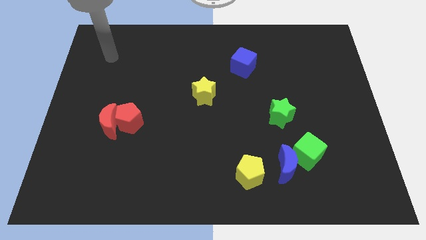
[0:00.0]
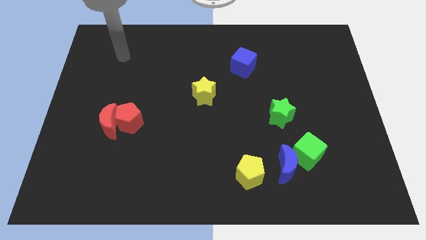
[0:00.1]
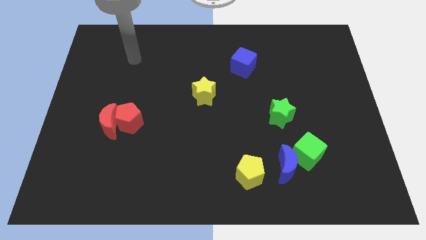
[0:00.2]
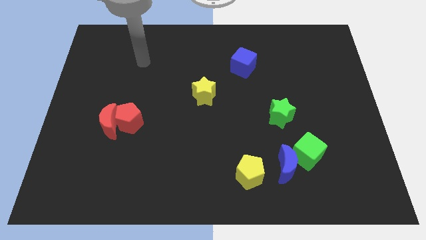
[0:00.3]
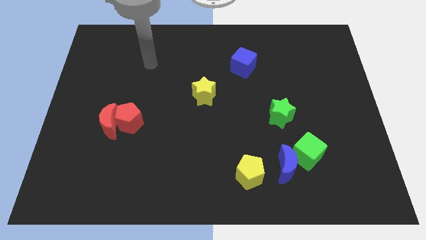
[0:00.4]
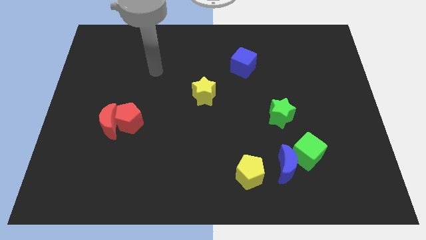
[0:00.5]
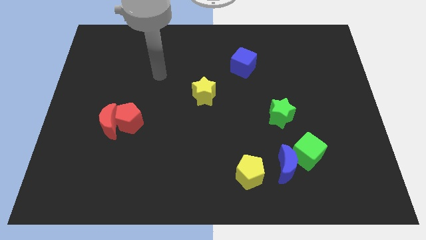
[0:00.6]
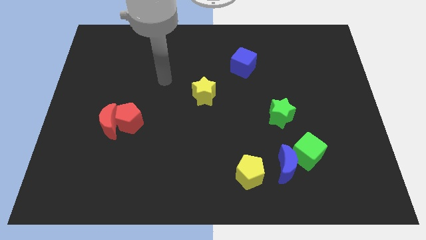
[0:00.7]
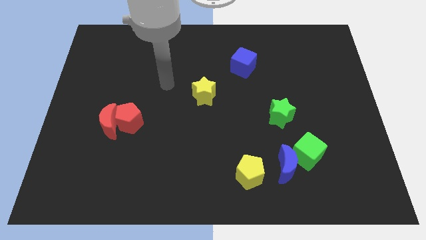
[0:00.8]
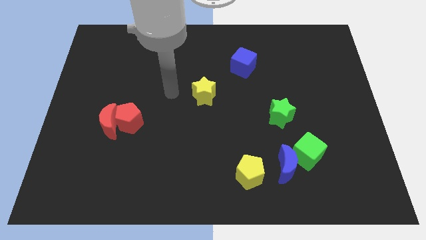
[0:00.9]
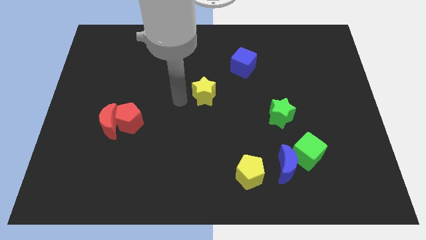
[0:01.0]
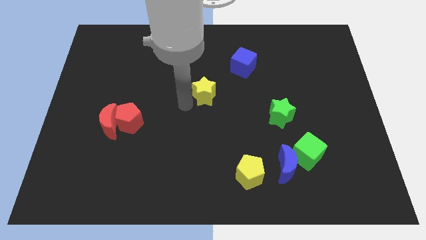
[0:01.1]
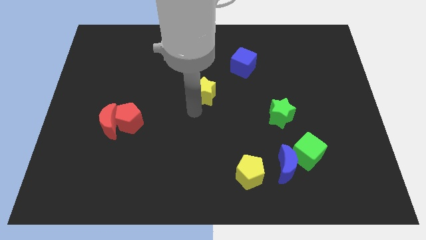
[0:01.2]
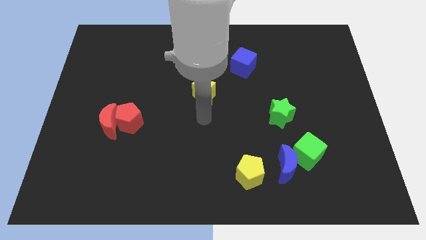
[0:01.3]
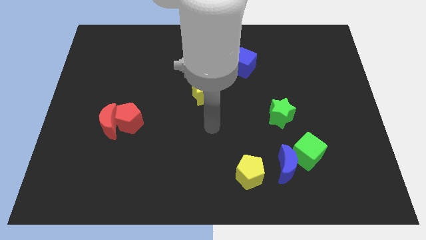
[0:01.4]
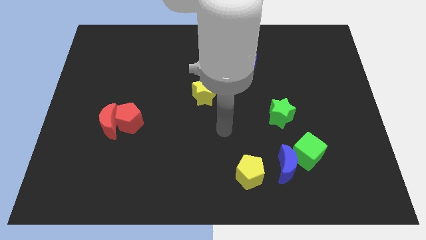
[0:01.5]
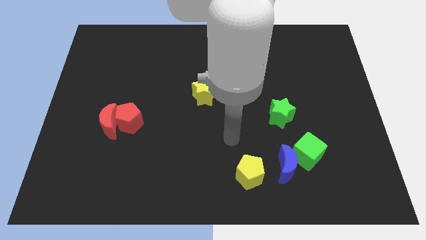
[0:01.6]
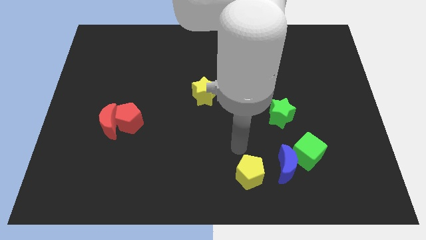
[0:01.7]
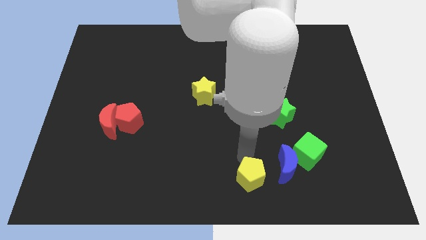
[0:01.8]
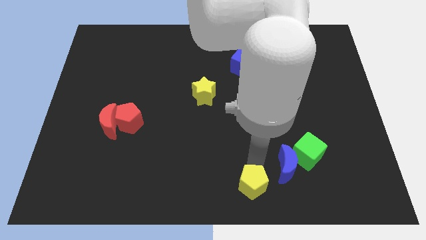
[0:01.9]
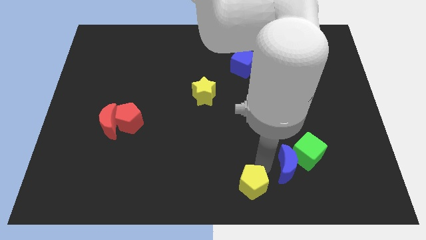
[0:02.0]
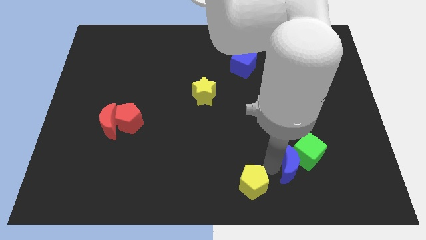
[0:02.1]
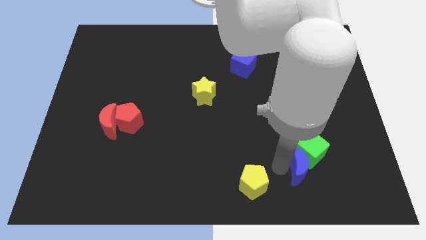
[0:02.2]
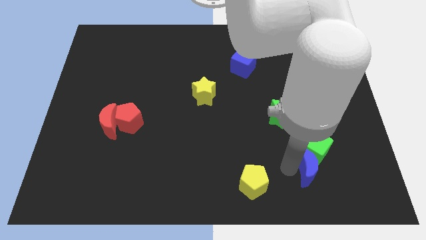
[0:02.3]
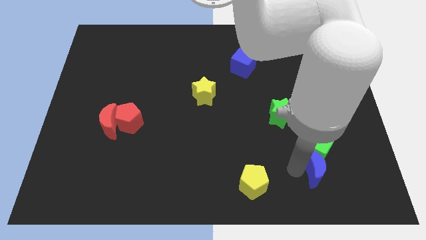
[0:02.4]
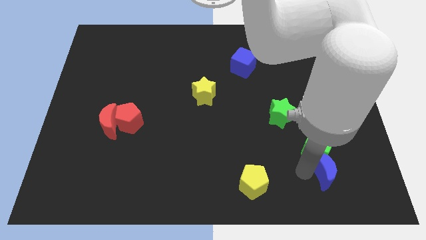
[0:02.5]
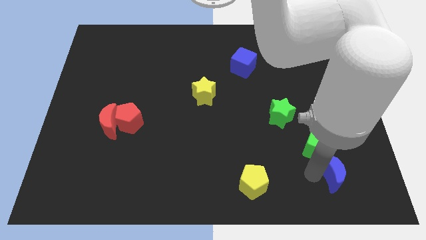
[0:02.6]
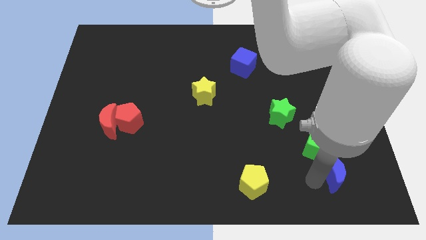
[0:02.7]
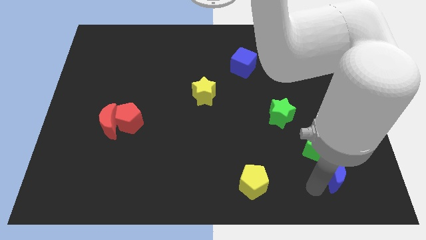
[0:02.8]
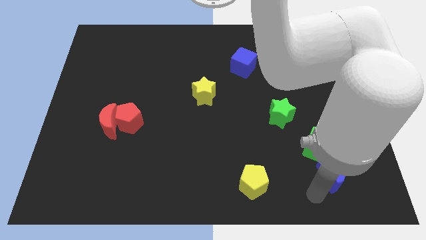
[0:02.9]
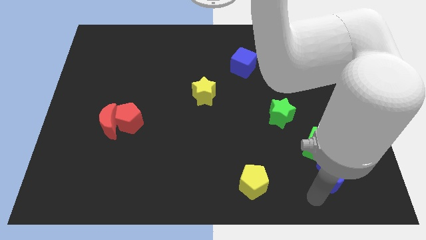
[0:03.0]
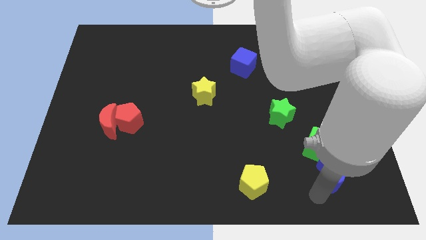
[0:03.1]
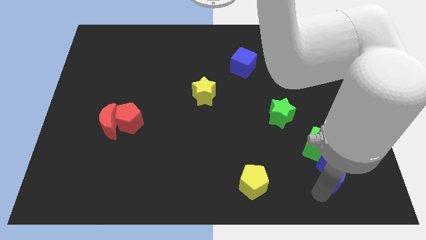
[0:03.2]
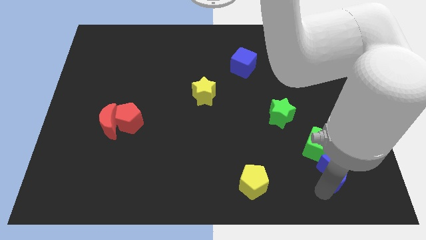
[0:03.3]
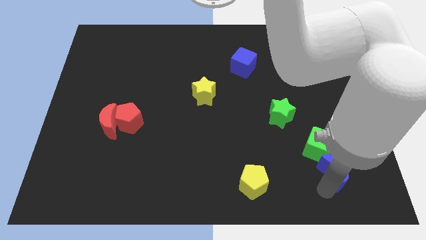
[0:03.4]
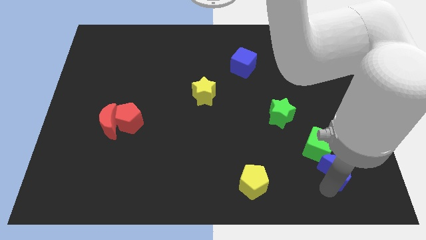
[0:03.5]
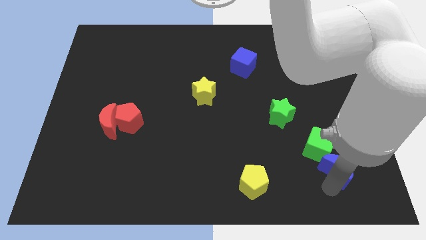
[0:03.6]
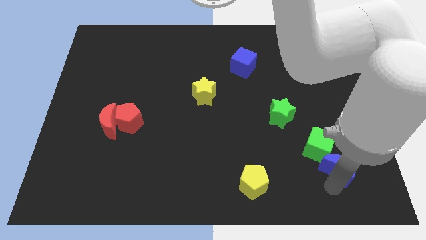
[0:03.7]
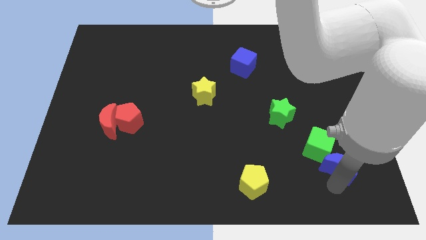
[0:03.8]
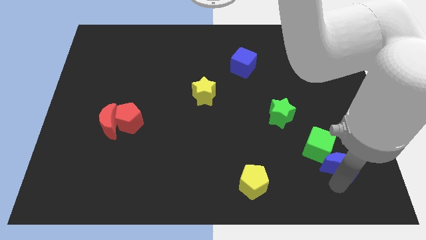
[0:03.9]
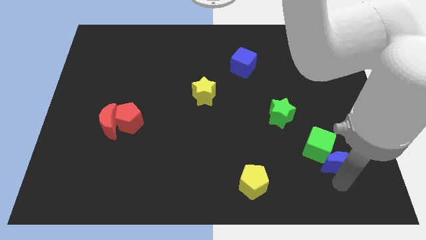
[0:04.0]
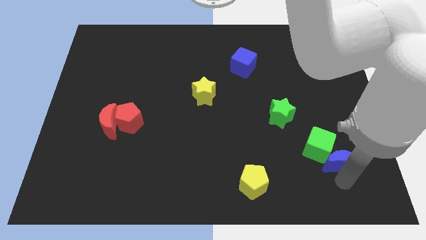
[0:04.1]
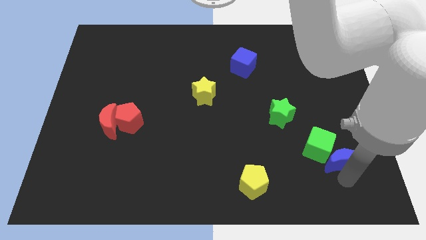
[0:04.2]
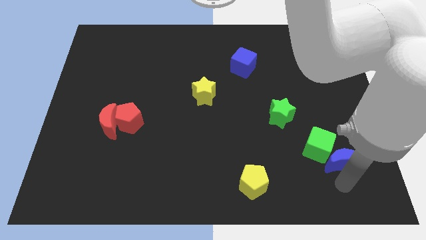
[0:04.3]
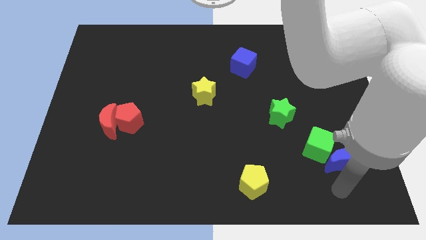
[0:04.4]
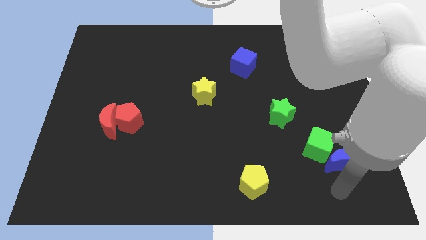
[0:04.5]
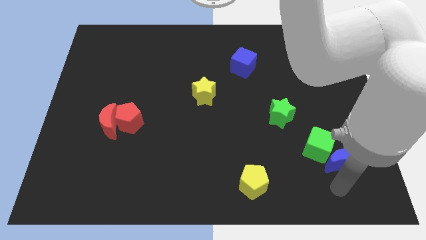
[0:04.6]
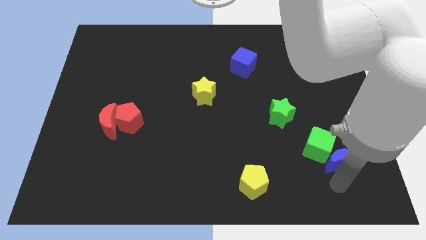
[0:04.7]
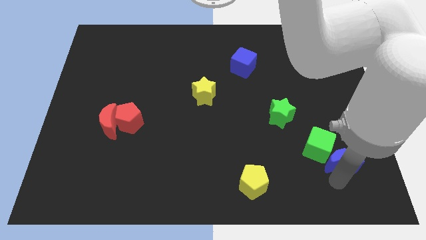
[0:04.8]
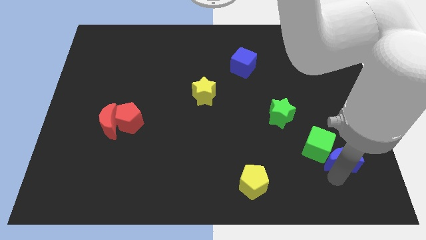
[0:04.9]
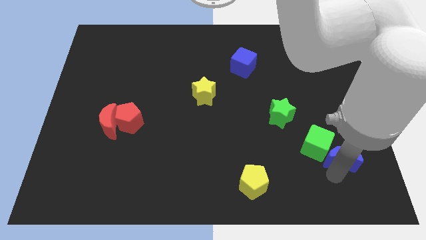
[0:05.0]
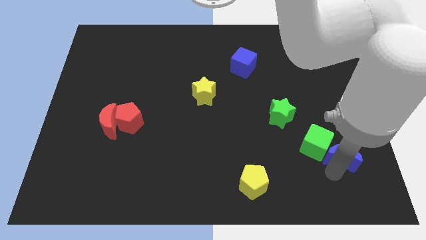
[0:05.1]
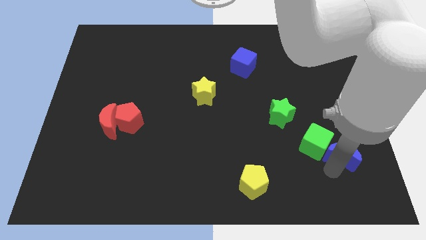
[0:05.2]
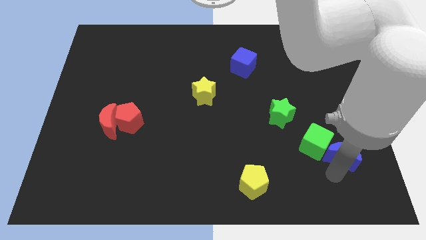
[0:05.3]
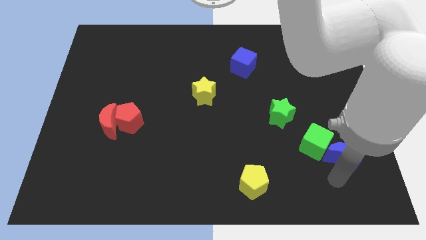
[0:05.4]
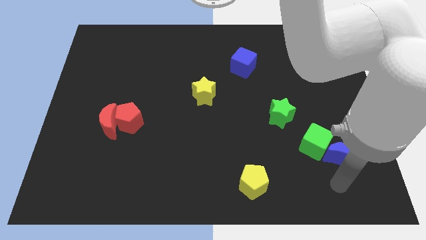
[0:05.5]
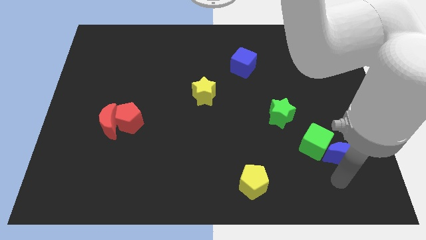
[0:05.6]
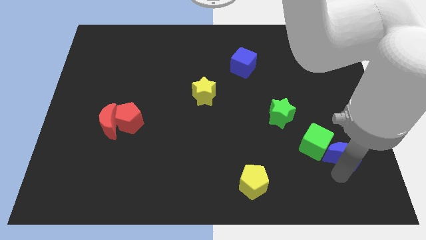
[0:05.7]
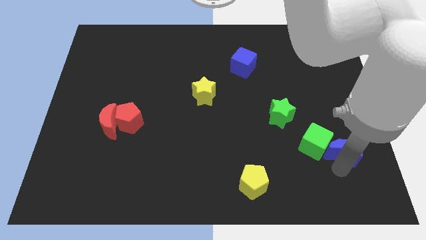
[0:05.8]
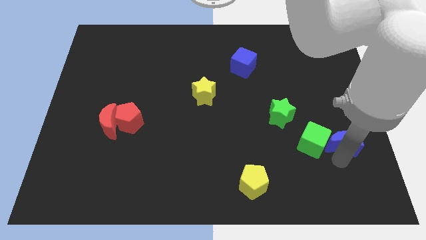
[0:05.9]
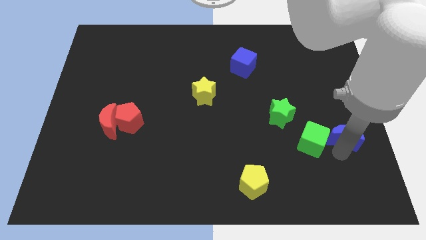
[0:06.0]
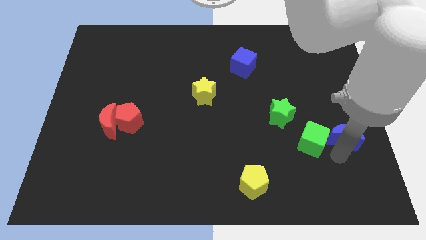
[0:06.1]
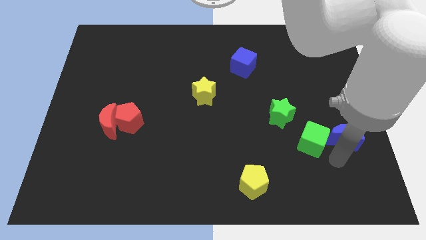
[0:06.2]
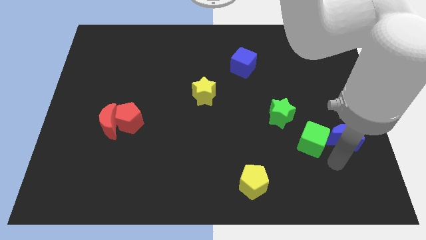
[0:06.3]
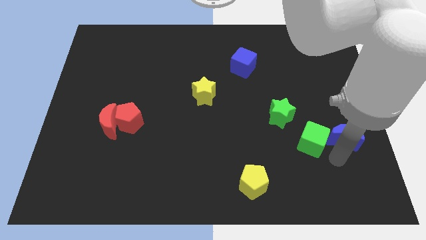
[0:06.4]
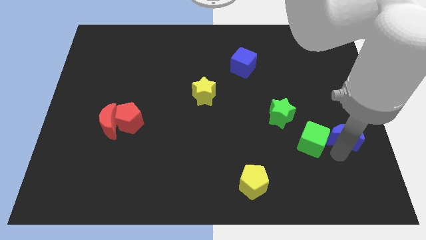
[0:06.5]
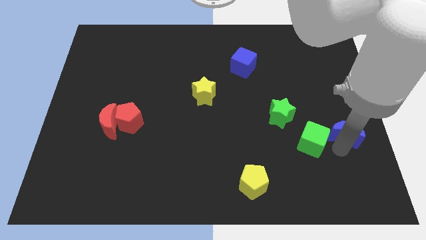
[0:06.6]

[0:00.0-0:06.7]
put the blue moon to the center right
